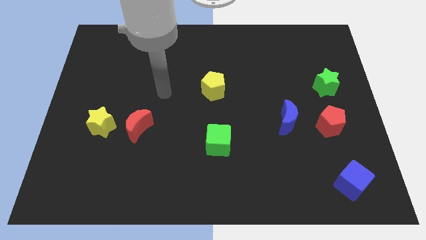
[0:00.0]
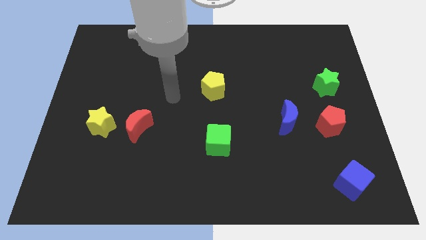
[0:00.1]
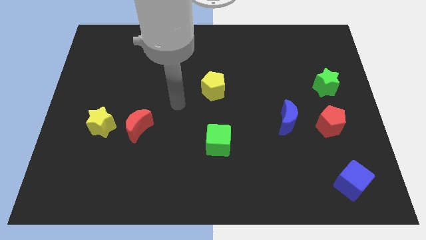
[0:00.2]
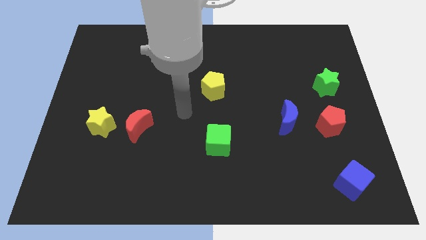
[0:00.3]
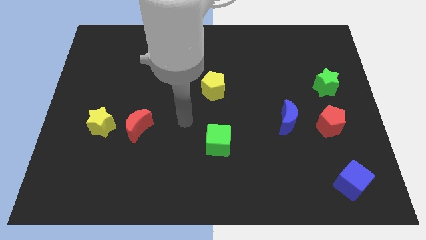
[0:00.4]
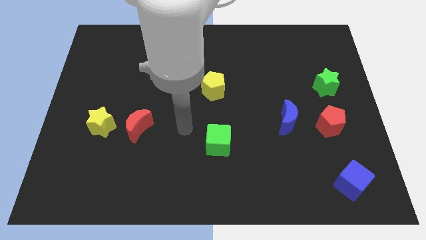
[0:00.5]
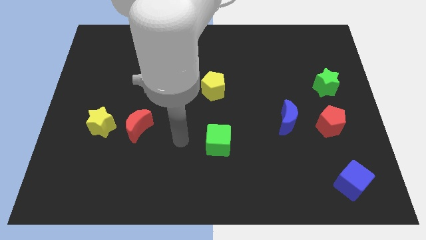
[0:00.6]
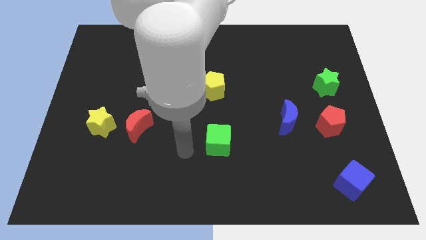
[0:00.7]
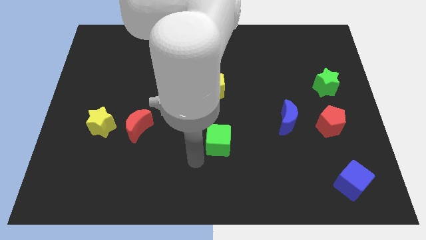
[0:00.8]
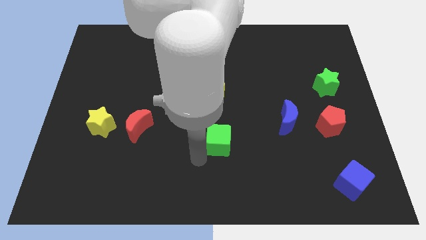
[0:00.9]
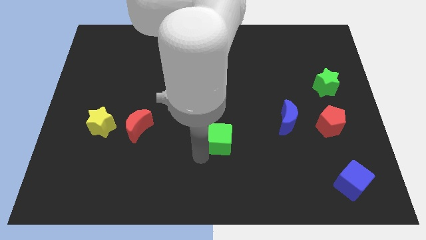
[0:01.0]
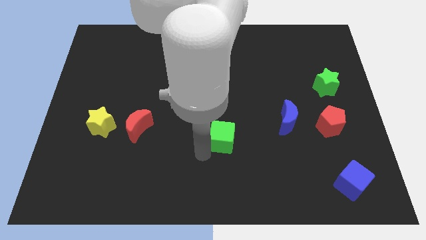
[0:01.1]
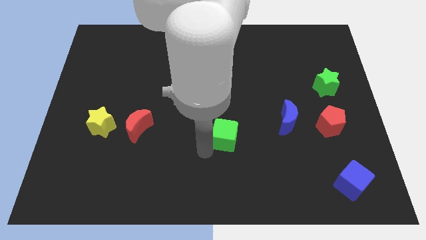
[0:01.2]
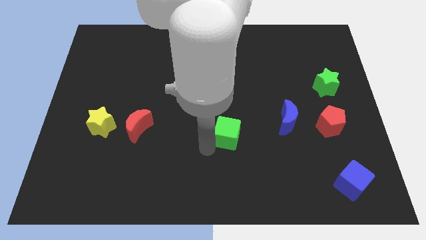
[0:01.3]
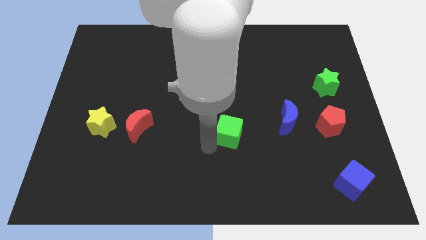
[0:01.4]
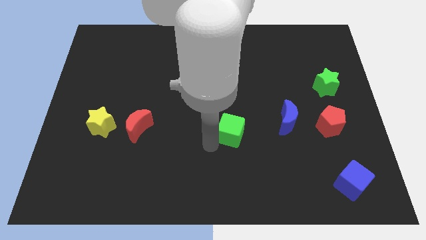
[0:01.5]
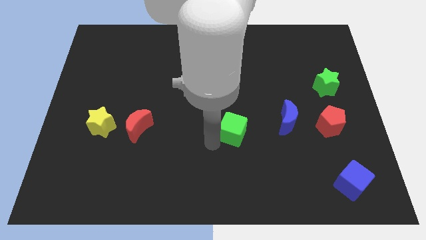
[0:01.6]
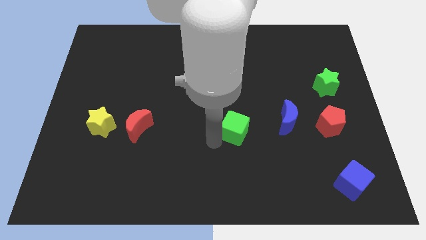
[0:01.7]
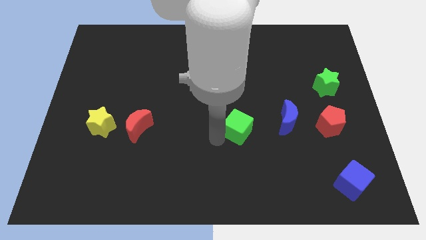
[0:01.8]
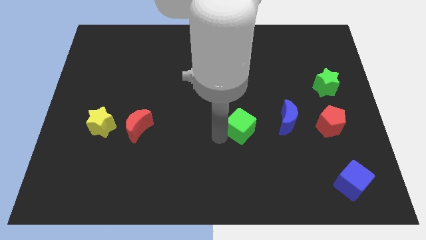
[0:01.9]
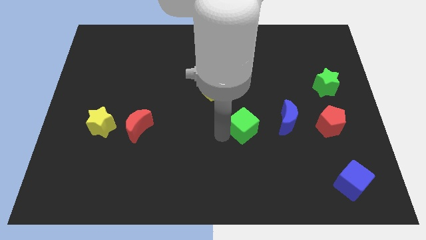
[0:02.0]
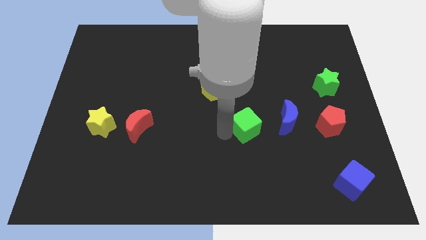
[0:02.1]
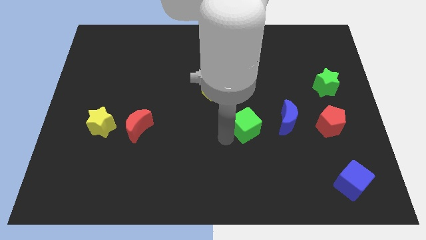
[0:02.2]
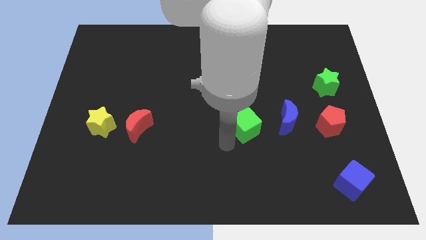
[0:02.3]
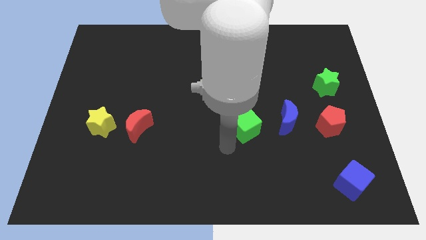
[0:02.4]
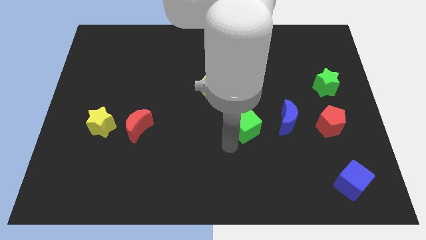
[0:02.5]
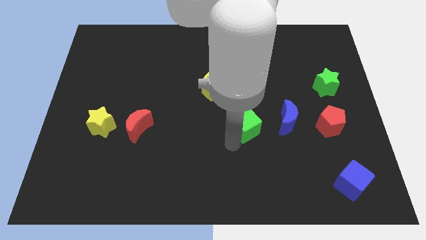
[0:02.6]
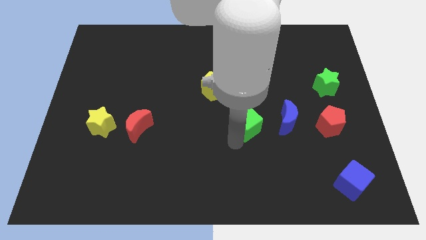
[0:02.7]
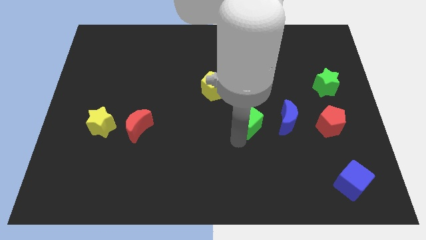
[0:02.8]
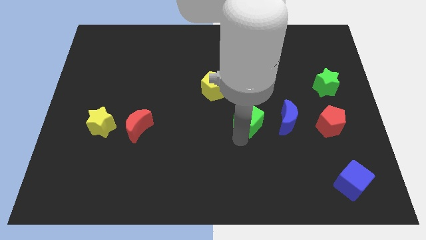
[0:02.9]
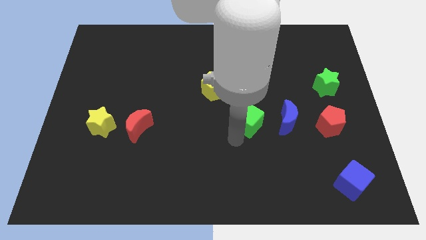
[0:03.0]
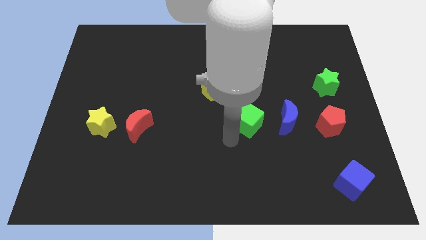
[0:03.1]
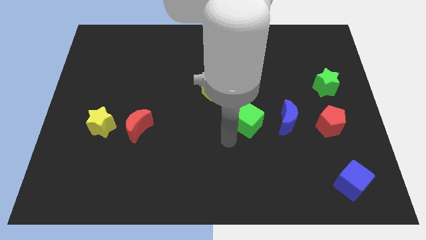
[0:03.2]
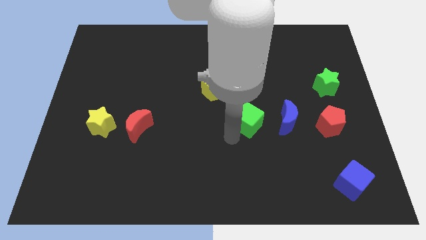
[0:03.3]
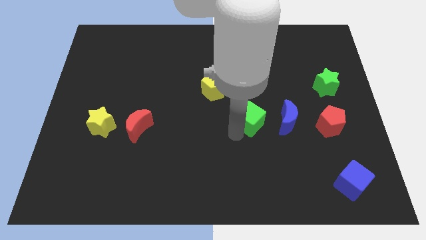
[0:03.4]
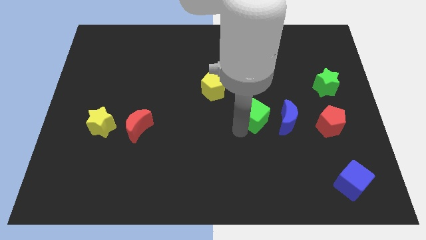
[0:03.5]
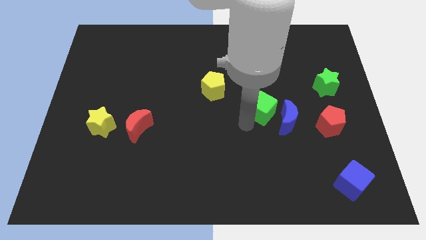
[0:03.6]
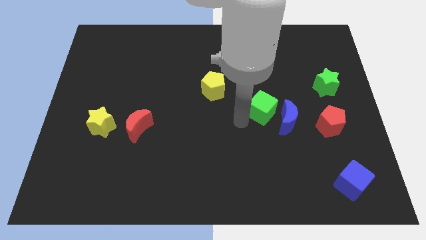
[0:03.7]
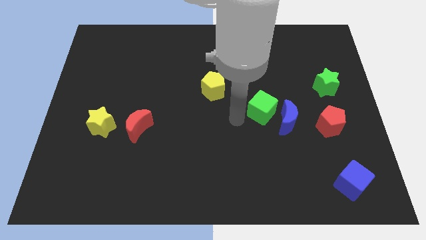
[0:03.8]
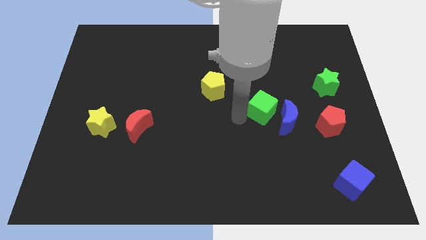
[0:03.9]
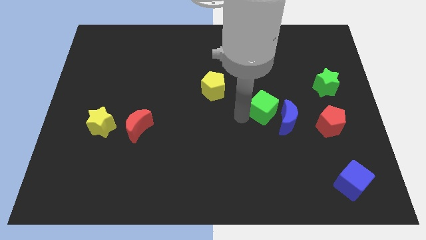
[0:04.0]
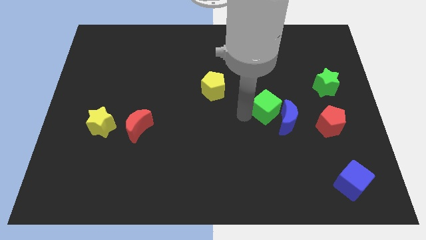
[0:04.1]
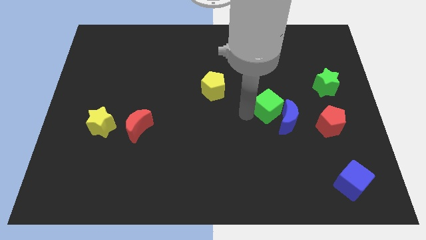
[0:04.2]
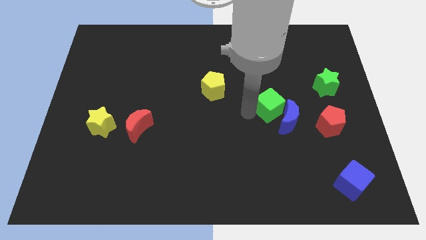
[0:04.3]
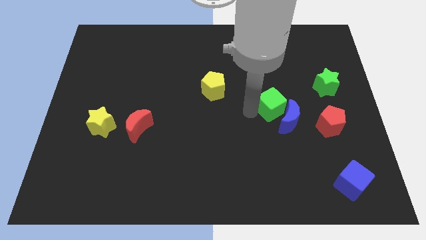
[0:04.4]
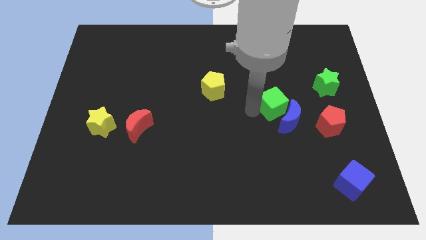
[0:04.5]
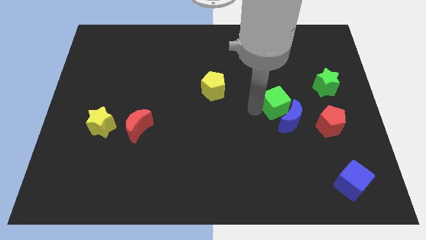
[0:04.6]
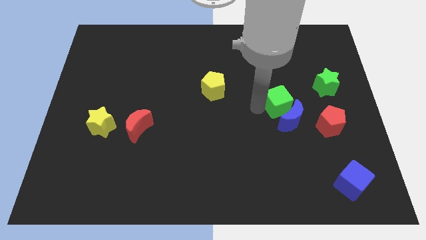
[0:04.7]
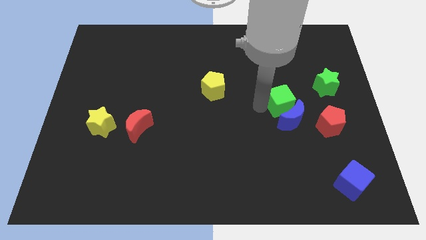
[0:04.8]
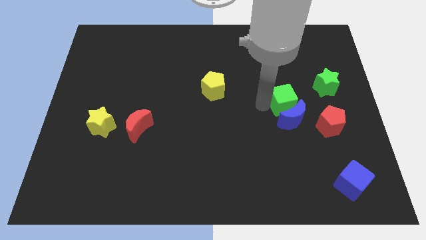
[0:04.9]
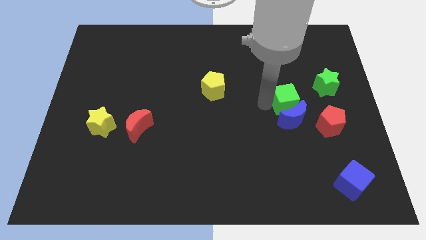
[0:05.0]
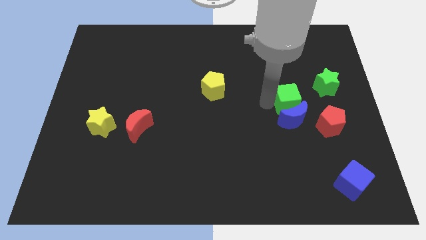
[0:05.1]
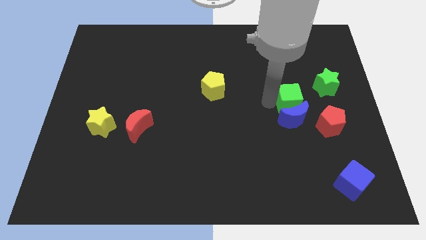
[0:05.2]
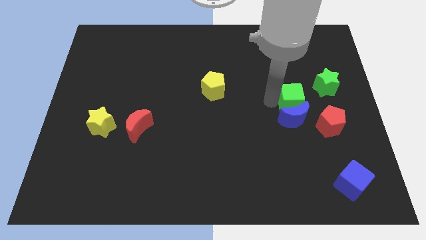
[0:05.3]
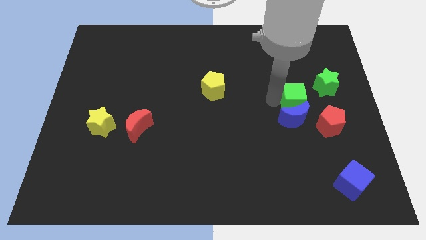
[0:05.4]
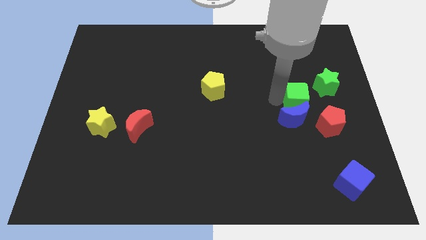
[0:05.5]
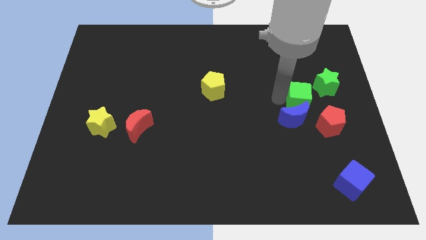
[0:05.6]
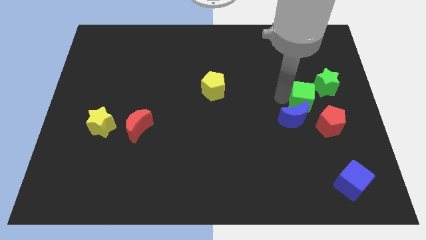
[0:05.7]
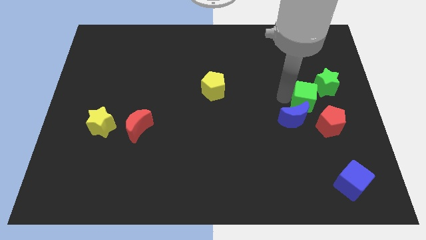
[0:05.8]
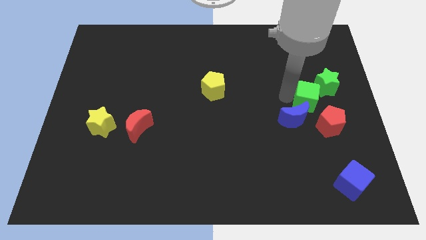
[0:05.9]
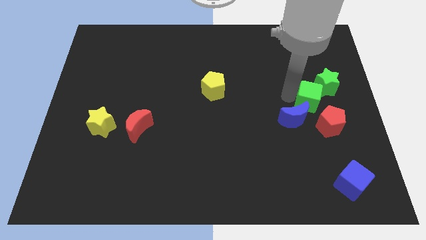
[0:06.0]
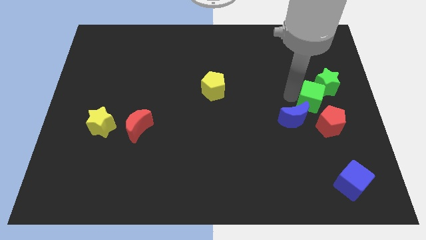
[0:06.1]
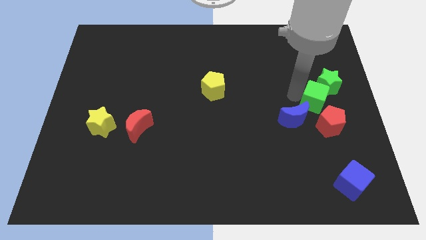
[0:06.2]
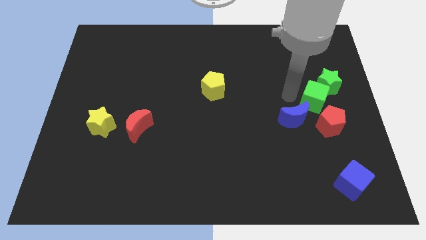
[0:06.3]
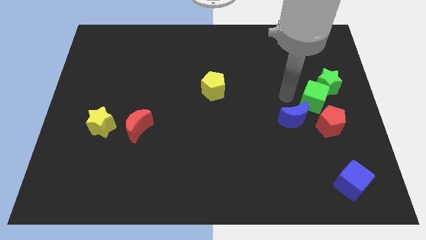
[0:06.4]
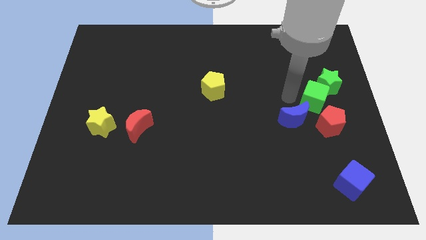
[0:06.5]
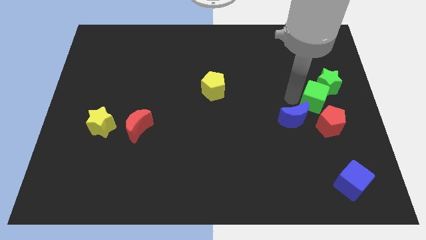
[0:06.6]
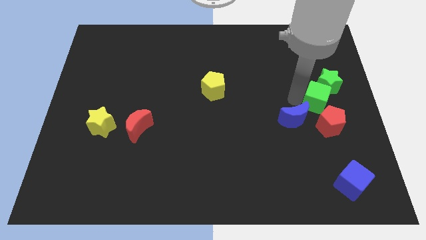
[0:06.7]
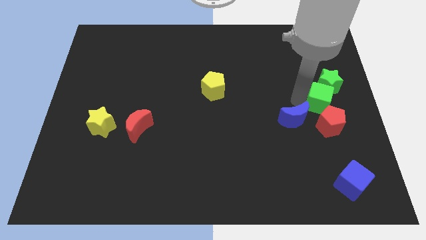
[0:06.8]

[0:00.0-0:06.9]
slide the green cube to the right side of the board
